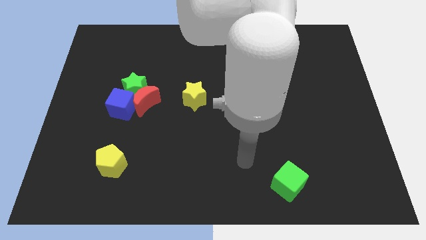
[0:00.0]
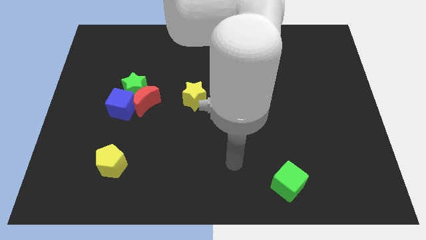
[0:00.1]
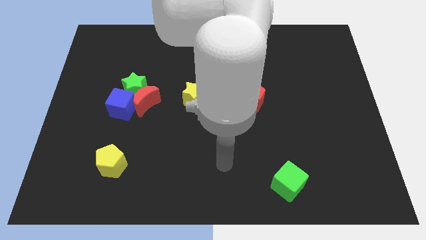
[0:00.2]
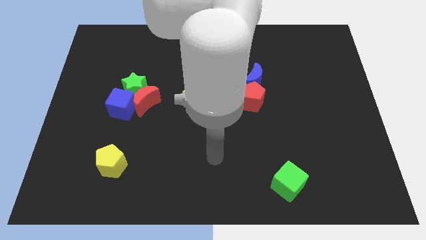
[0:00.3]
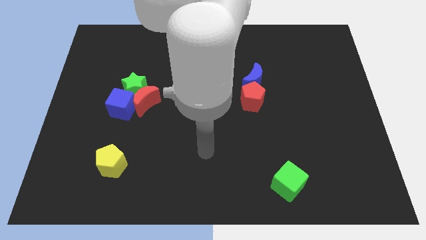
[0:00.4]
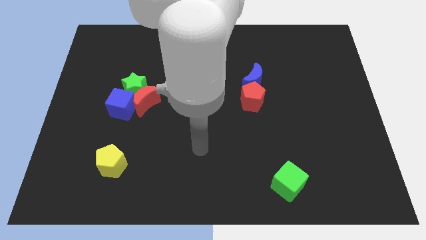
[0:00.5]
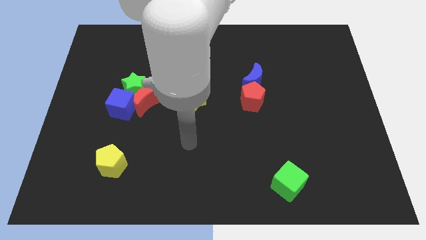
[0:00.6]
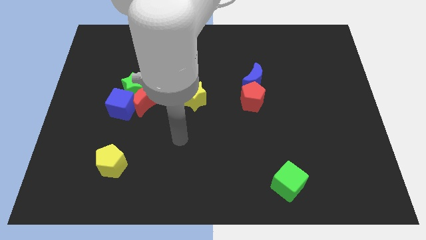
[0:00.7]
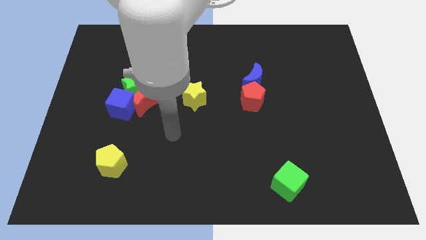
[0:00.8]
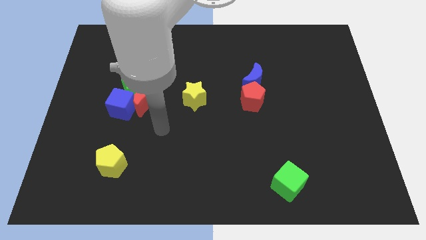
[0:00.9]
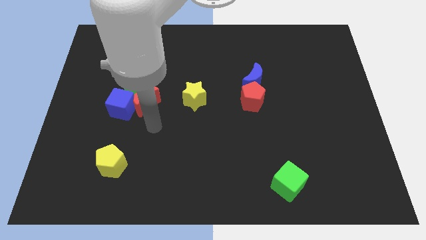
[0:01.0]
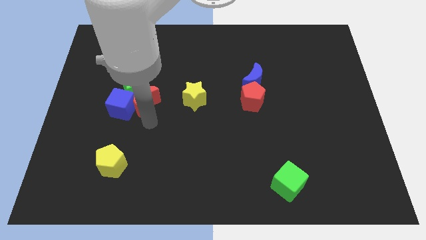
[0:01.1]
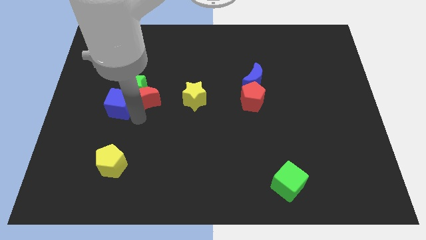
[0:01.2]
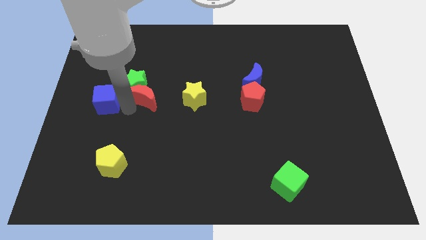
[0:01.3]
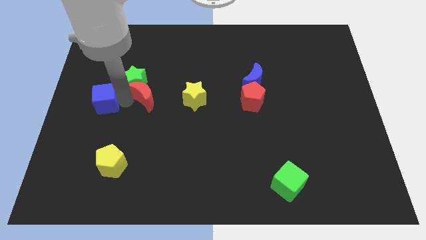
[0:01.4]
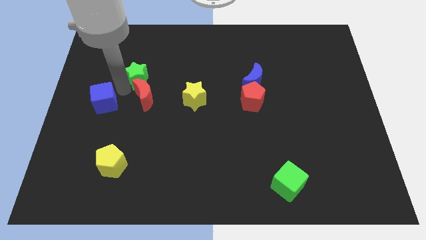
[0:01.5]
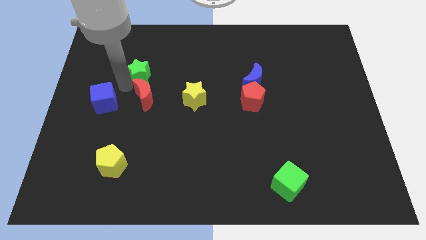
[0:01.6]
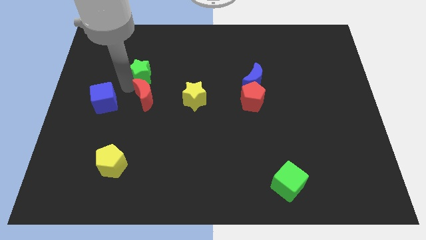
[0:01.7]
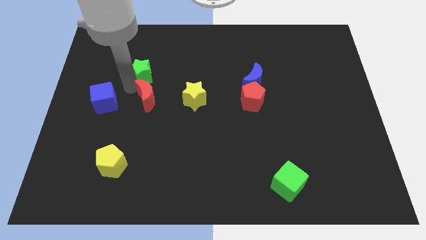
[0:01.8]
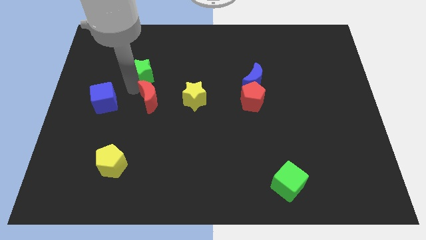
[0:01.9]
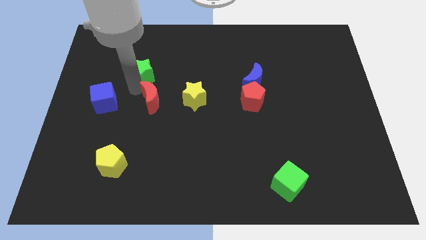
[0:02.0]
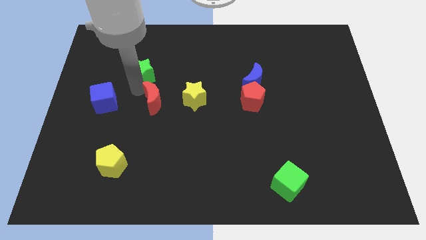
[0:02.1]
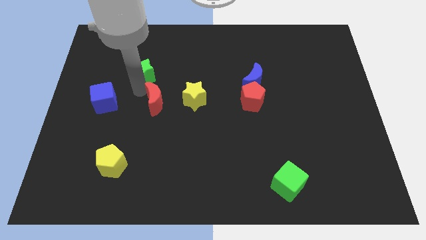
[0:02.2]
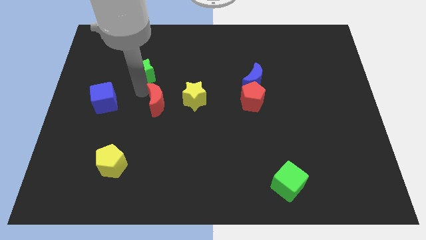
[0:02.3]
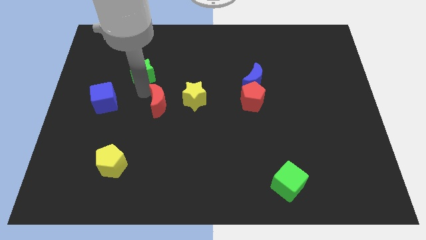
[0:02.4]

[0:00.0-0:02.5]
pull the red moon apart from the green star and blue cube

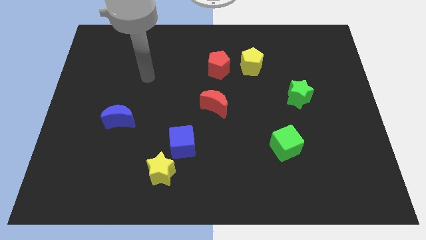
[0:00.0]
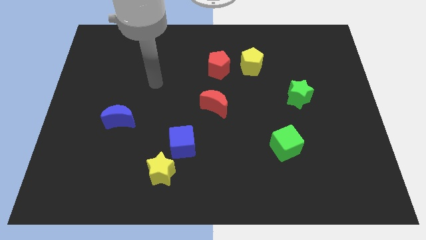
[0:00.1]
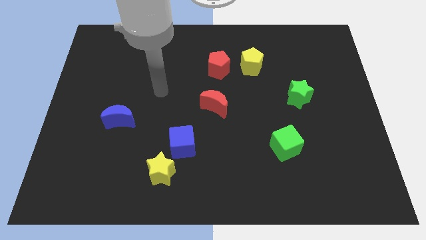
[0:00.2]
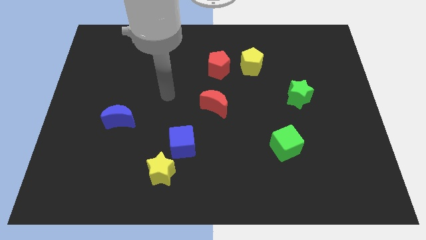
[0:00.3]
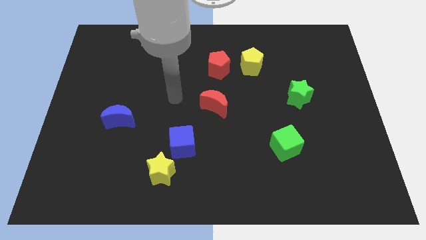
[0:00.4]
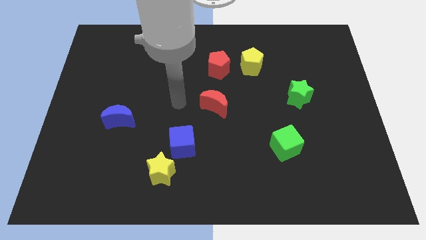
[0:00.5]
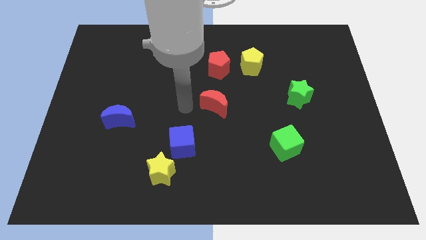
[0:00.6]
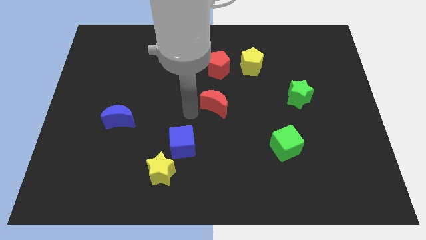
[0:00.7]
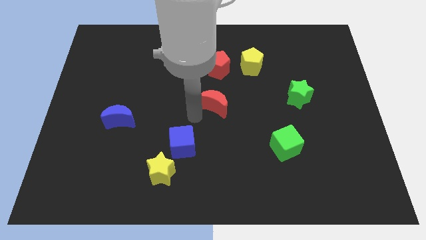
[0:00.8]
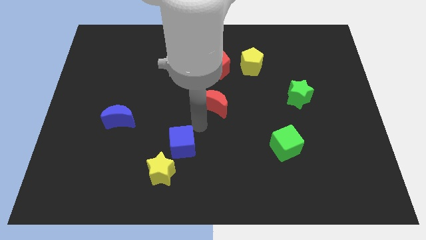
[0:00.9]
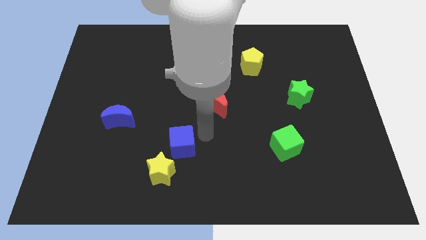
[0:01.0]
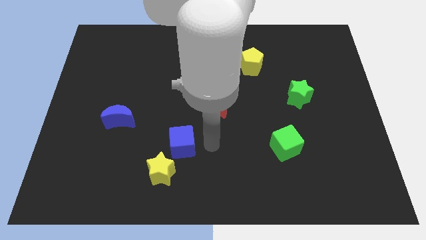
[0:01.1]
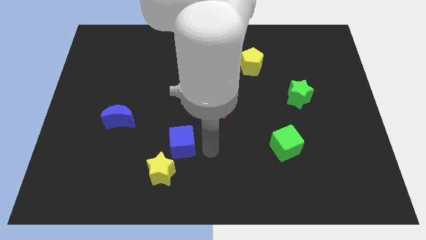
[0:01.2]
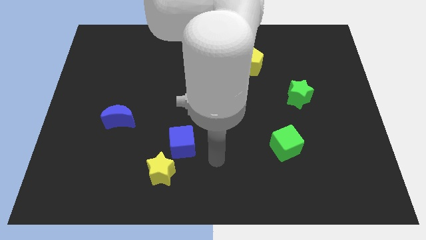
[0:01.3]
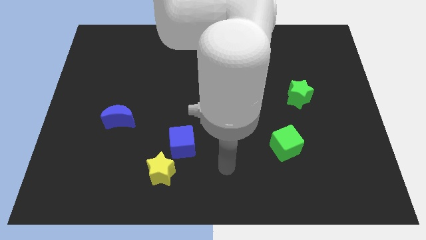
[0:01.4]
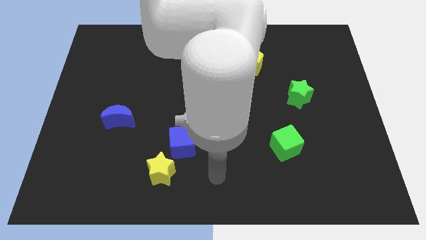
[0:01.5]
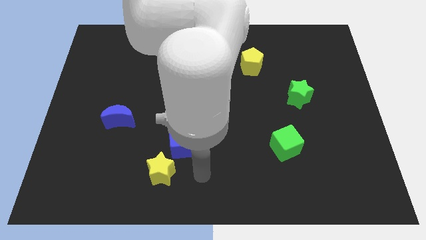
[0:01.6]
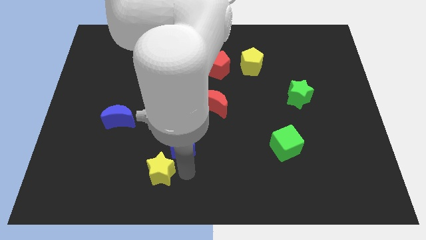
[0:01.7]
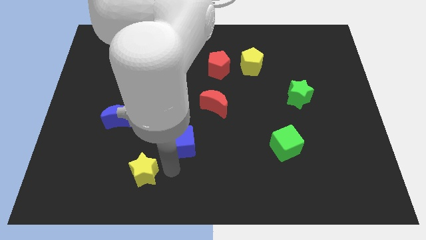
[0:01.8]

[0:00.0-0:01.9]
pull the blue cube apart from the yellow star

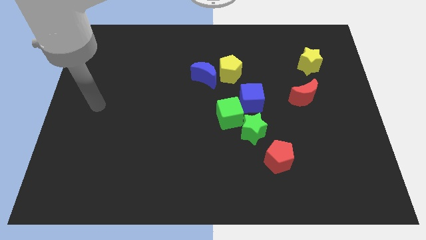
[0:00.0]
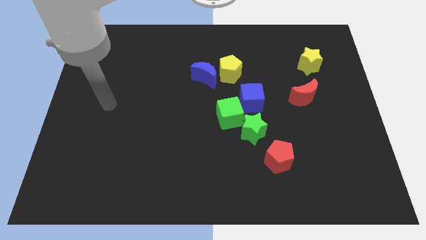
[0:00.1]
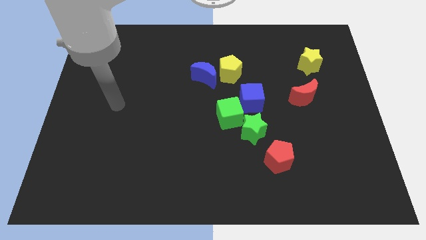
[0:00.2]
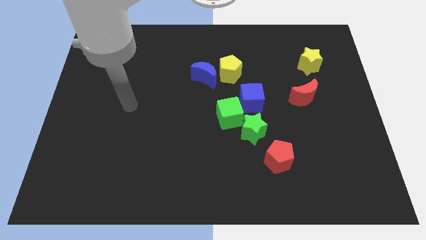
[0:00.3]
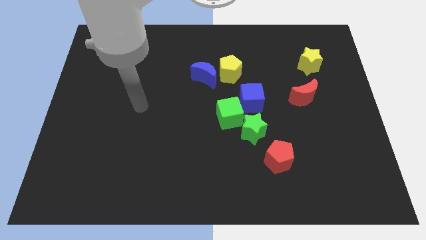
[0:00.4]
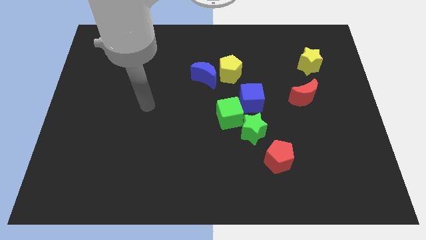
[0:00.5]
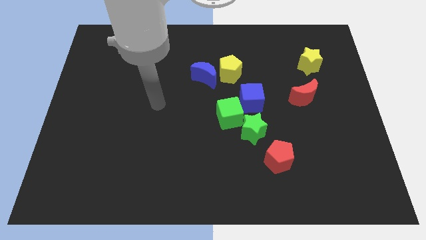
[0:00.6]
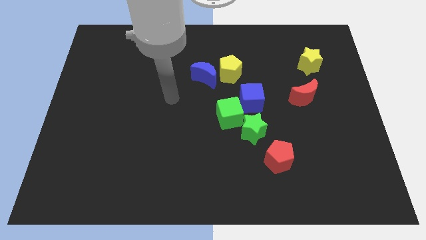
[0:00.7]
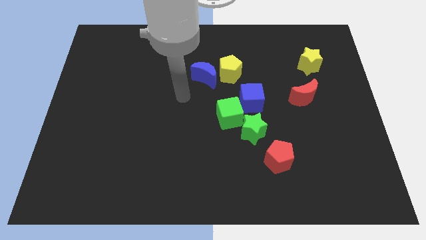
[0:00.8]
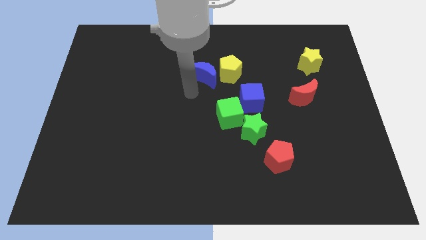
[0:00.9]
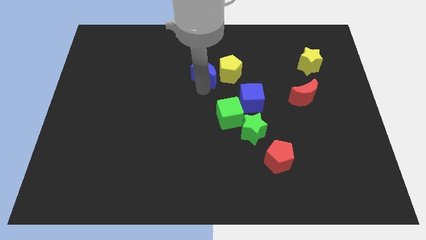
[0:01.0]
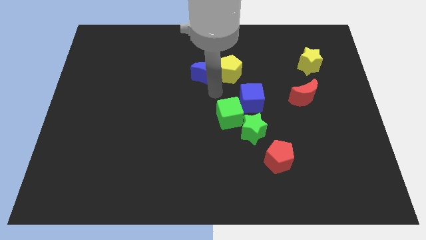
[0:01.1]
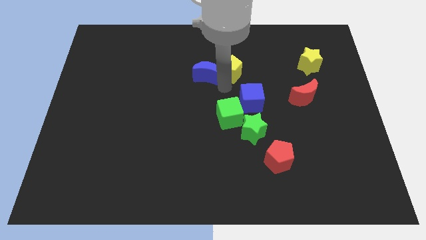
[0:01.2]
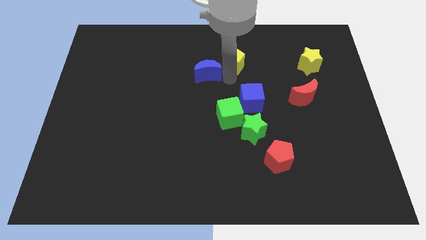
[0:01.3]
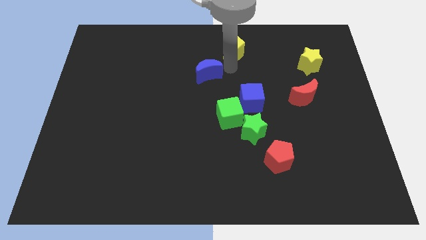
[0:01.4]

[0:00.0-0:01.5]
pull the blue moon apart from the yellow pentagon

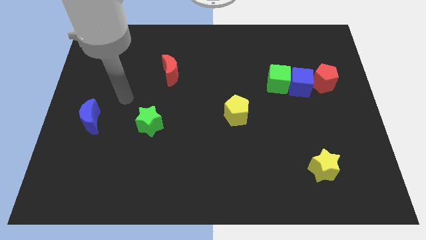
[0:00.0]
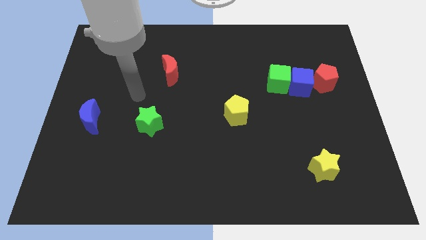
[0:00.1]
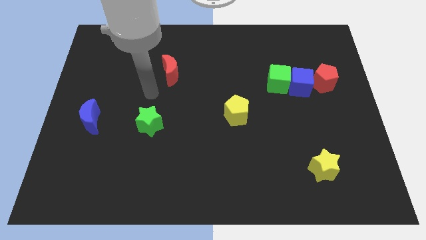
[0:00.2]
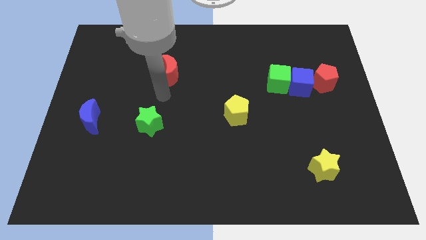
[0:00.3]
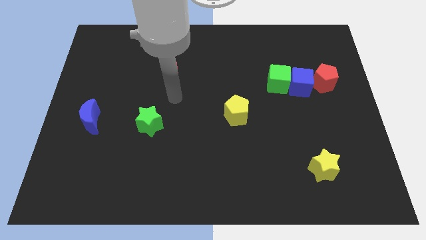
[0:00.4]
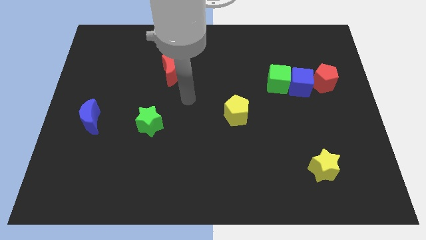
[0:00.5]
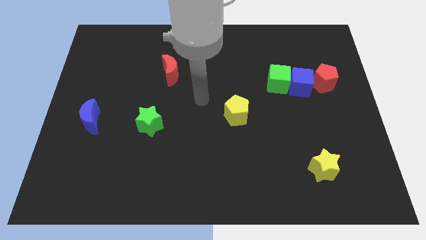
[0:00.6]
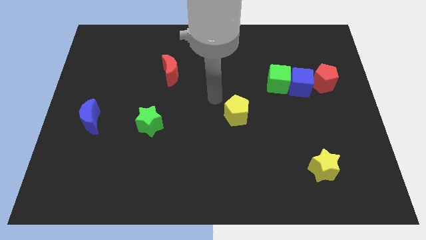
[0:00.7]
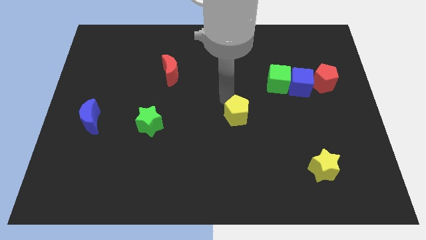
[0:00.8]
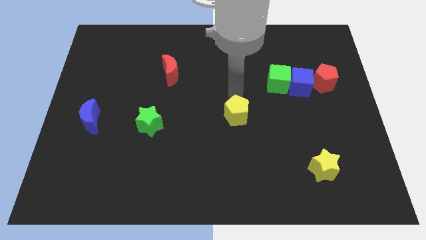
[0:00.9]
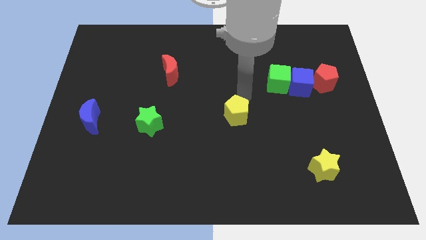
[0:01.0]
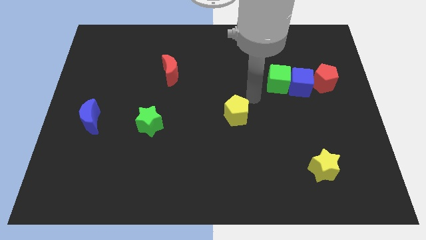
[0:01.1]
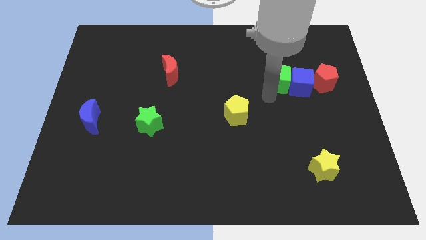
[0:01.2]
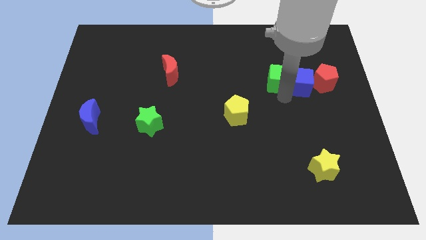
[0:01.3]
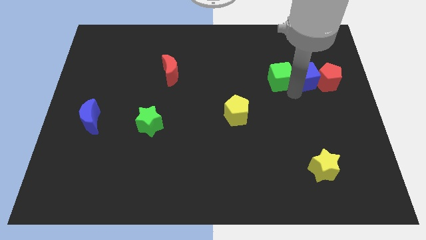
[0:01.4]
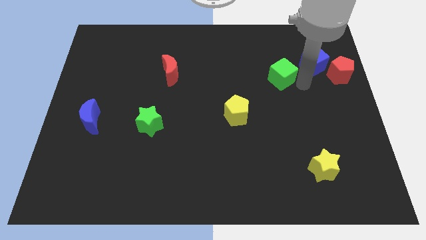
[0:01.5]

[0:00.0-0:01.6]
pull the green cube apart from the blue cube

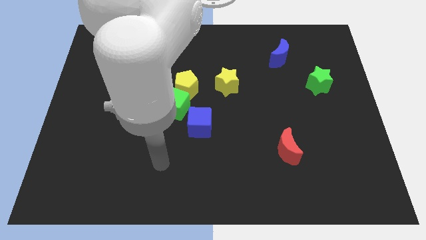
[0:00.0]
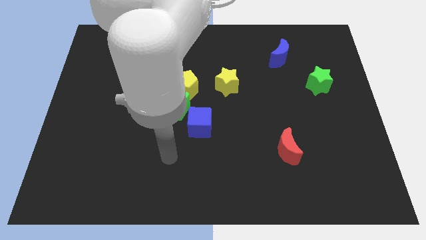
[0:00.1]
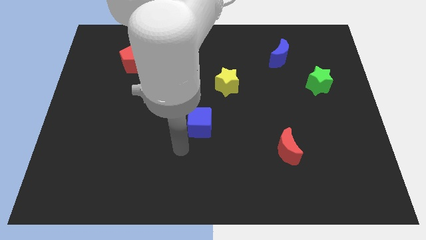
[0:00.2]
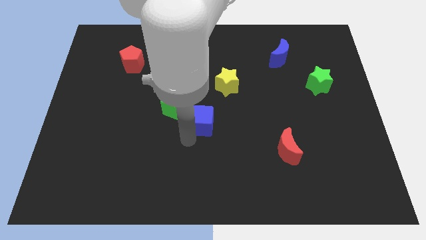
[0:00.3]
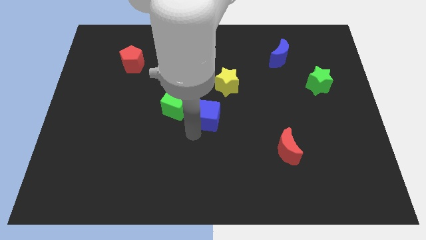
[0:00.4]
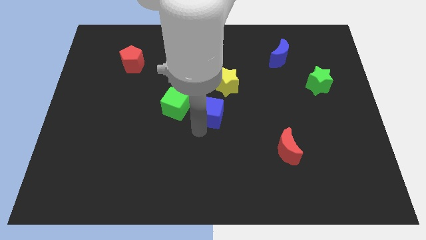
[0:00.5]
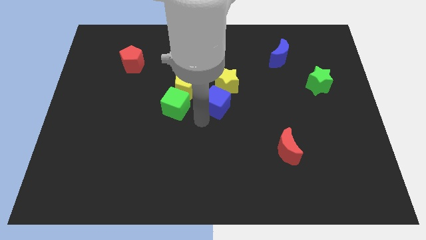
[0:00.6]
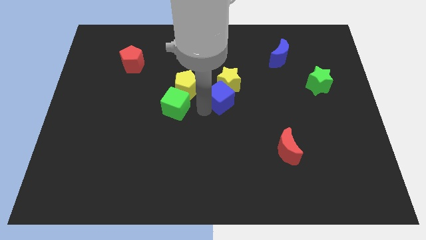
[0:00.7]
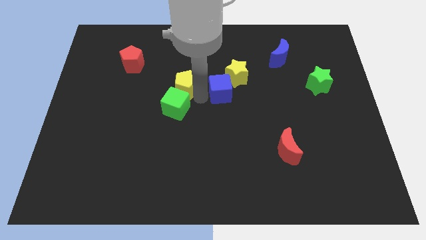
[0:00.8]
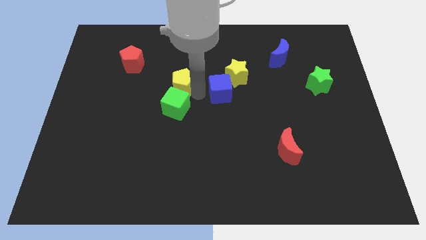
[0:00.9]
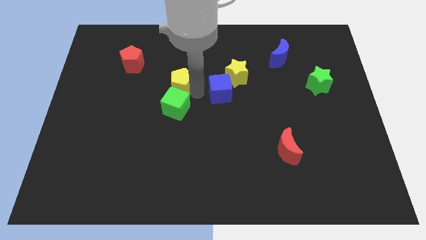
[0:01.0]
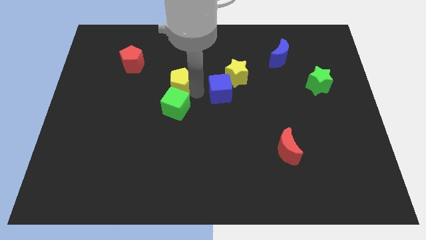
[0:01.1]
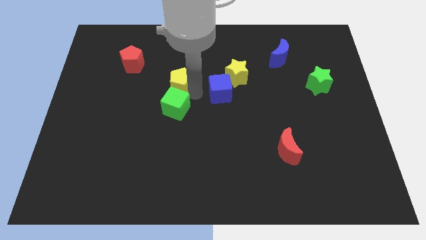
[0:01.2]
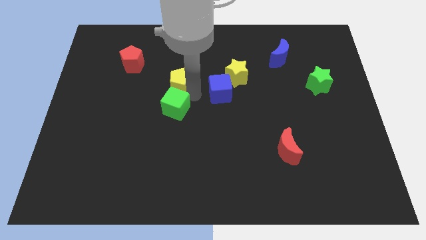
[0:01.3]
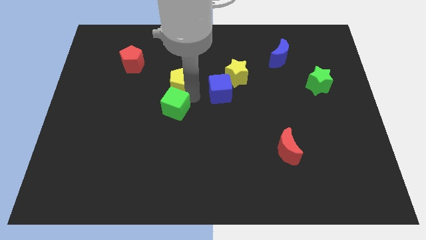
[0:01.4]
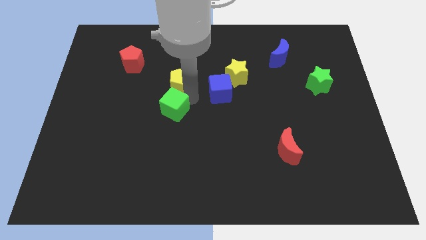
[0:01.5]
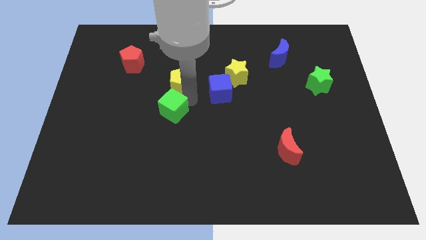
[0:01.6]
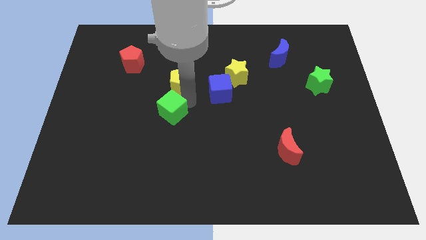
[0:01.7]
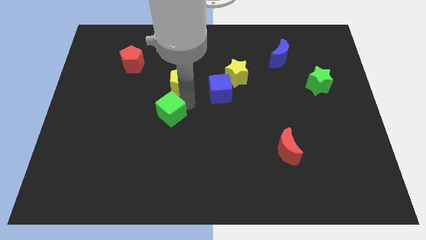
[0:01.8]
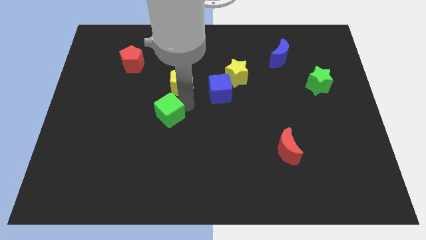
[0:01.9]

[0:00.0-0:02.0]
pull the green cube apart from the yellow pentagon and blue cube
